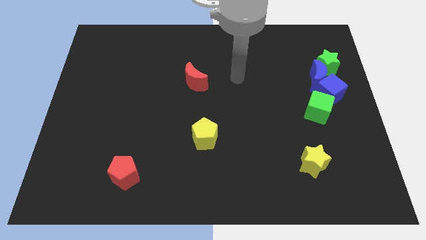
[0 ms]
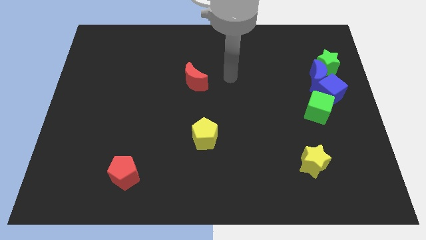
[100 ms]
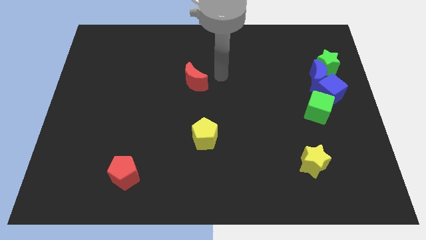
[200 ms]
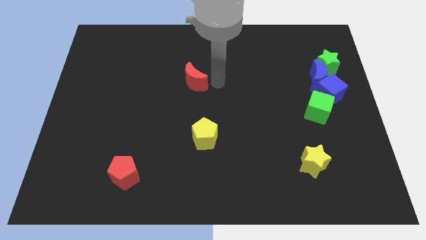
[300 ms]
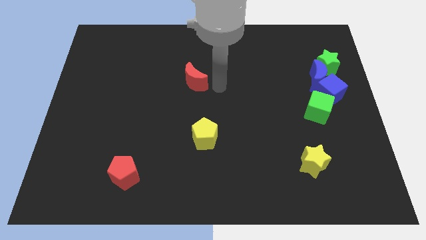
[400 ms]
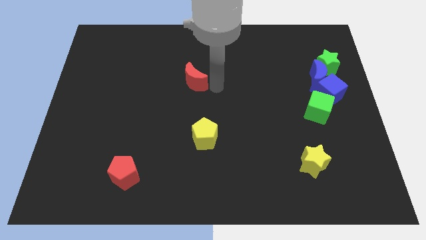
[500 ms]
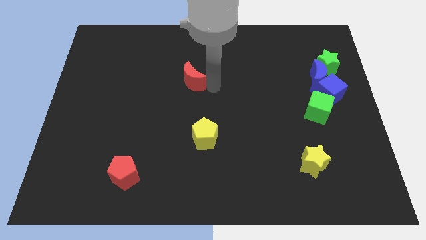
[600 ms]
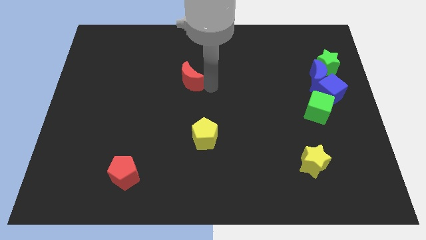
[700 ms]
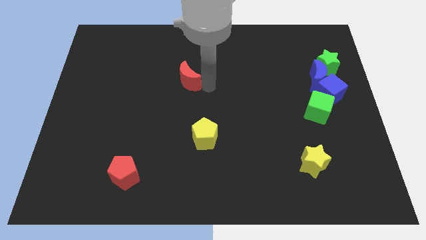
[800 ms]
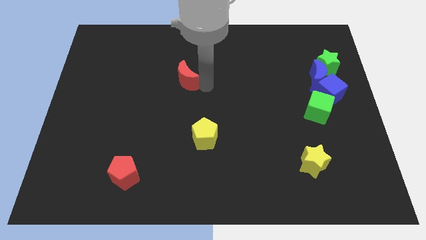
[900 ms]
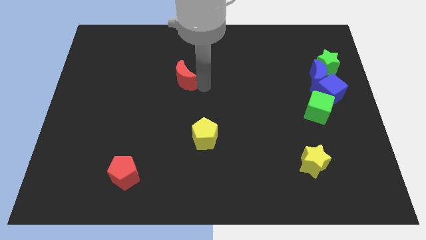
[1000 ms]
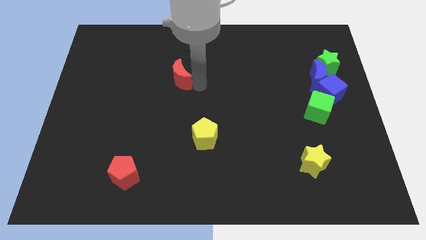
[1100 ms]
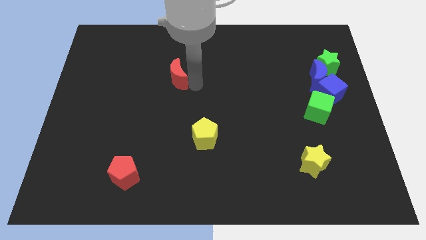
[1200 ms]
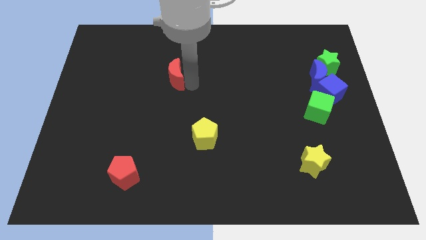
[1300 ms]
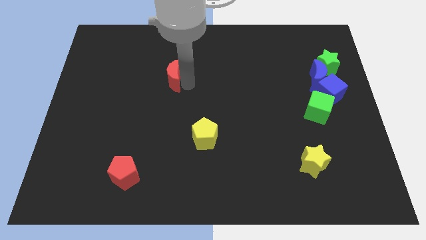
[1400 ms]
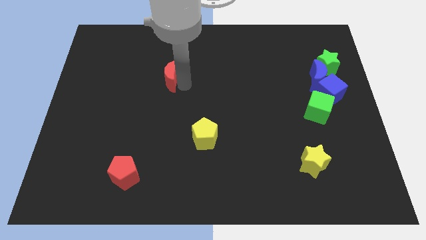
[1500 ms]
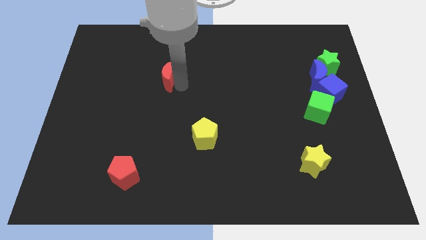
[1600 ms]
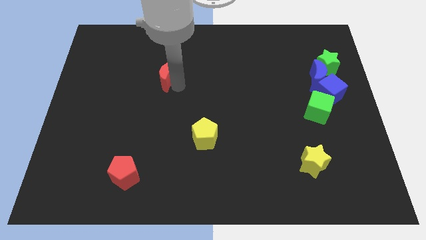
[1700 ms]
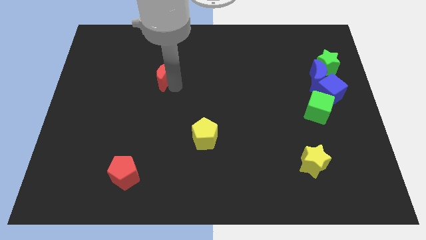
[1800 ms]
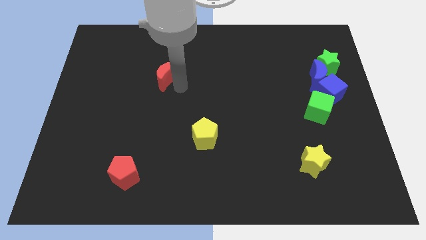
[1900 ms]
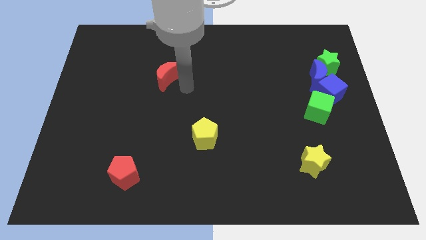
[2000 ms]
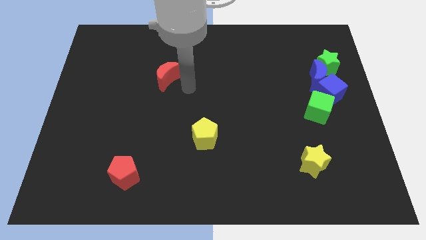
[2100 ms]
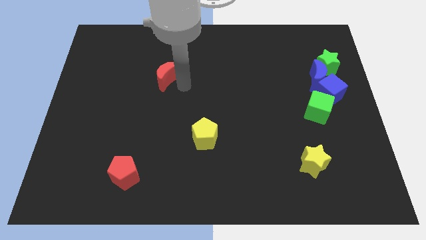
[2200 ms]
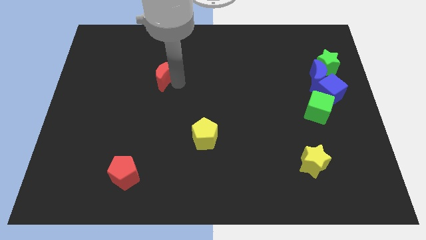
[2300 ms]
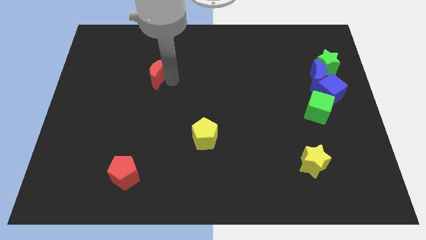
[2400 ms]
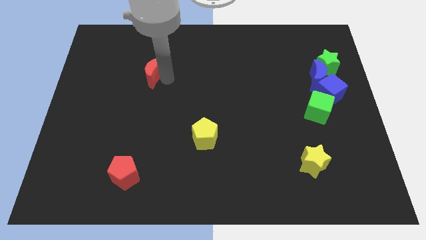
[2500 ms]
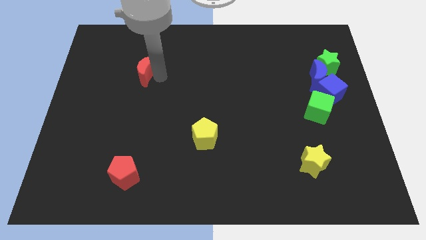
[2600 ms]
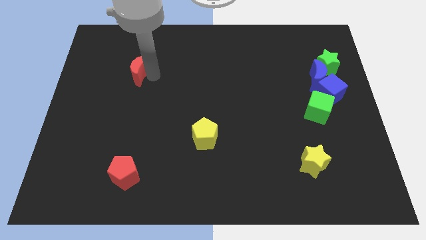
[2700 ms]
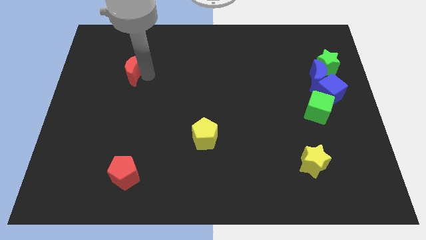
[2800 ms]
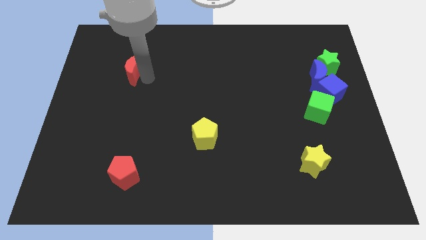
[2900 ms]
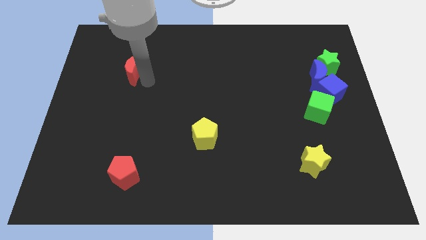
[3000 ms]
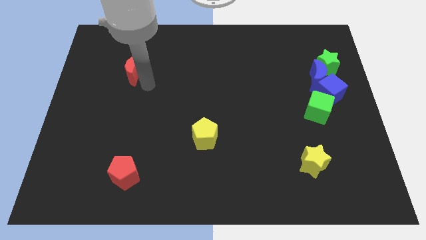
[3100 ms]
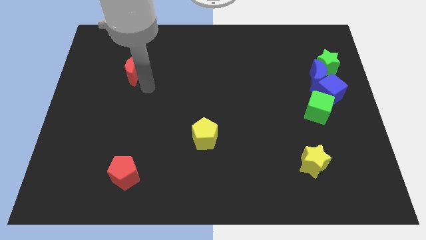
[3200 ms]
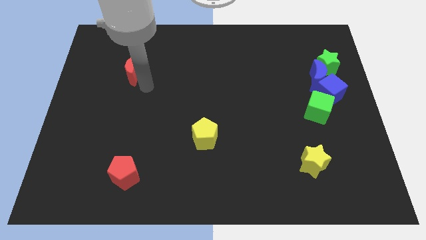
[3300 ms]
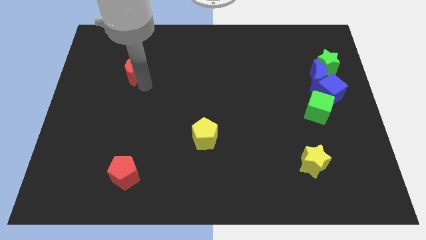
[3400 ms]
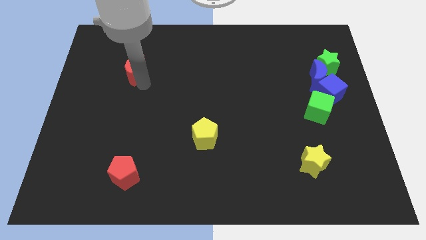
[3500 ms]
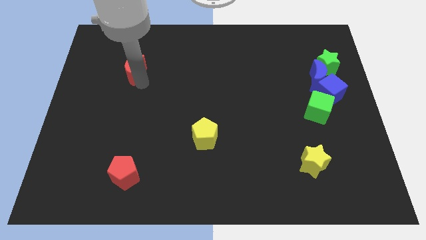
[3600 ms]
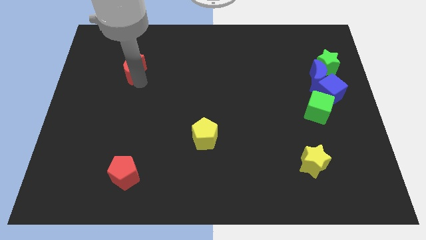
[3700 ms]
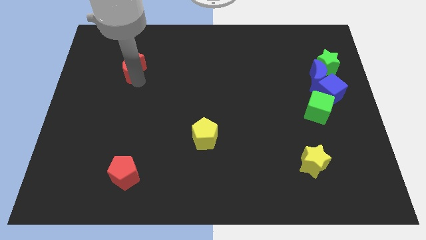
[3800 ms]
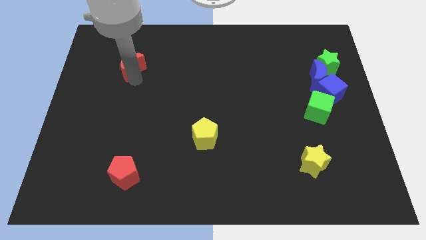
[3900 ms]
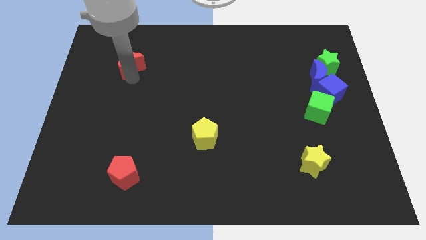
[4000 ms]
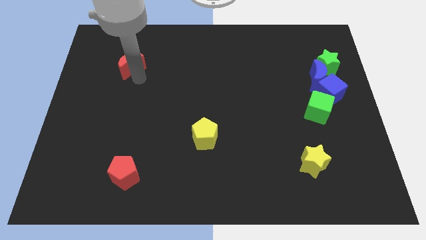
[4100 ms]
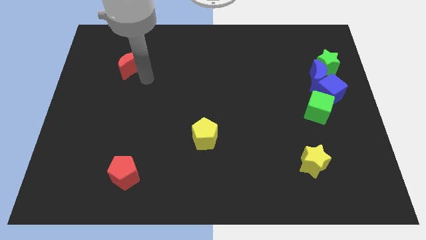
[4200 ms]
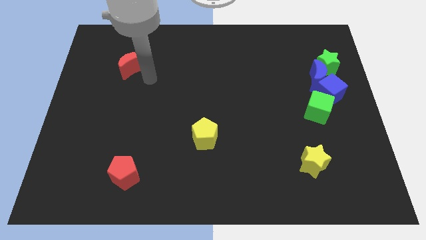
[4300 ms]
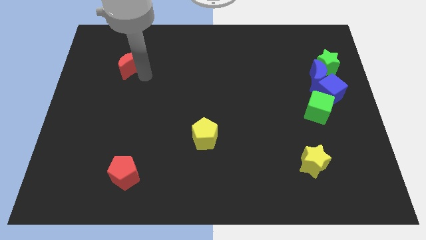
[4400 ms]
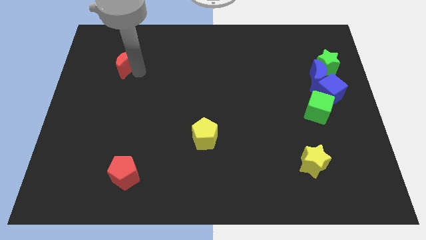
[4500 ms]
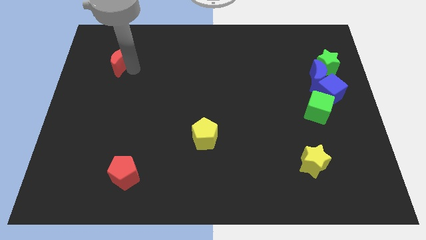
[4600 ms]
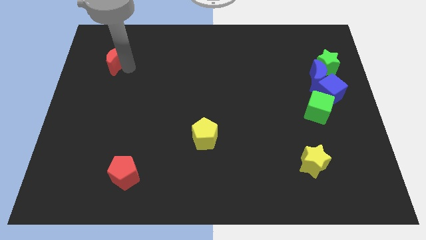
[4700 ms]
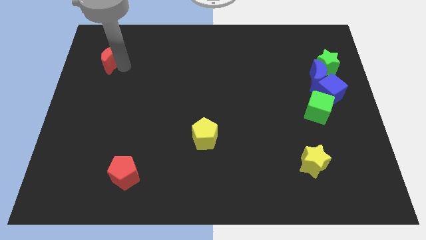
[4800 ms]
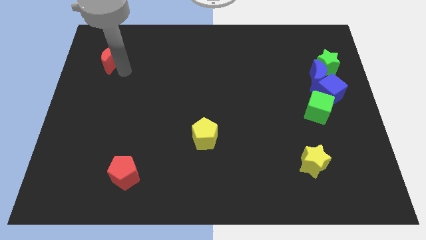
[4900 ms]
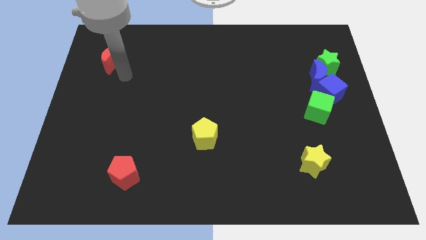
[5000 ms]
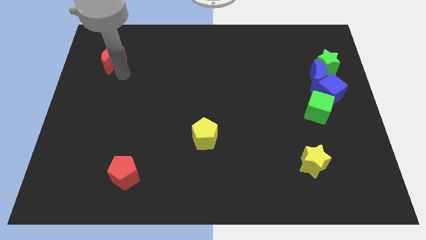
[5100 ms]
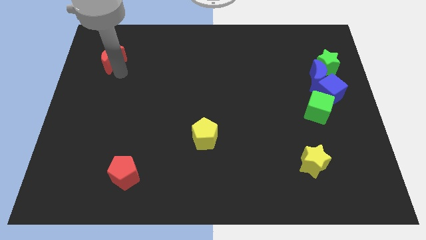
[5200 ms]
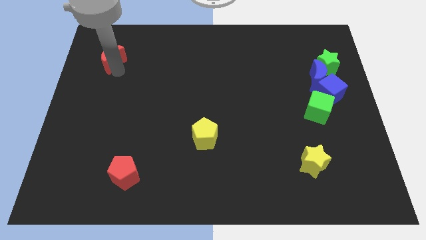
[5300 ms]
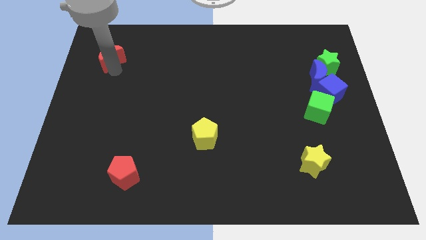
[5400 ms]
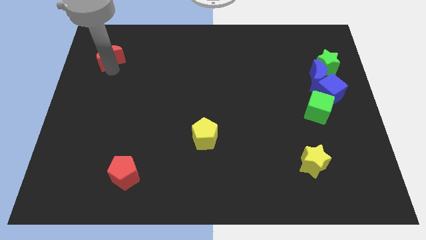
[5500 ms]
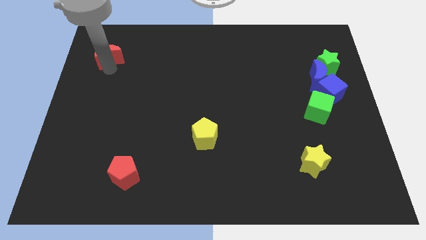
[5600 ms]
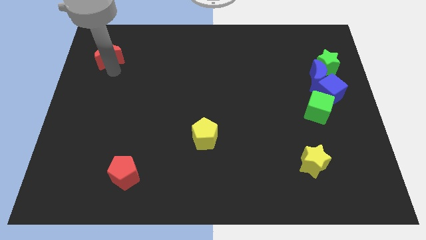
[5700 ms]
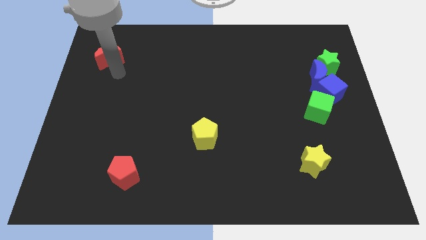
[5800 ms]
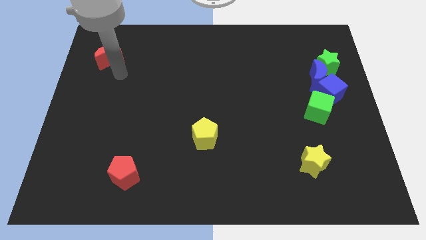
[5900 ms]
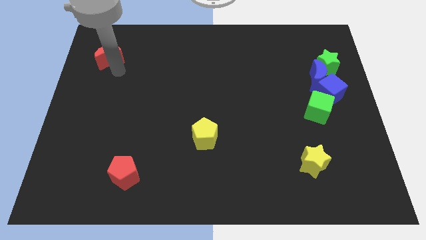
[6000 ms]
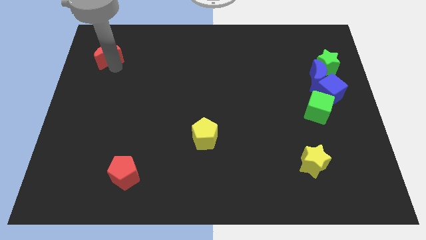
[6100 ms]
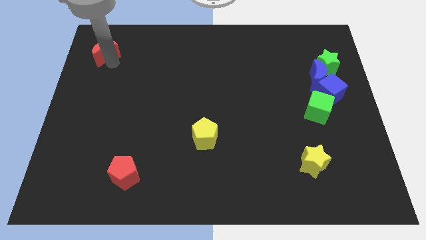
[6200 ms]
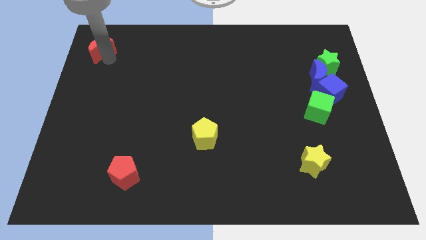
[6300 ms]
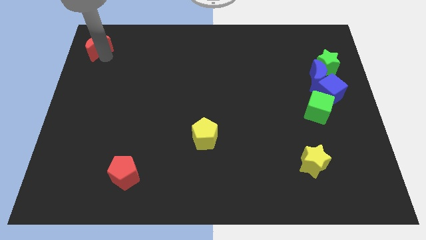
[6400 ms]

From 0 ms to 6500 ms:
put the red moon to the top left corner
